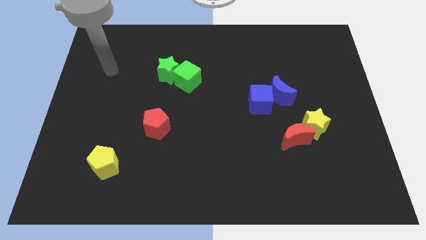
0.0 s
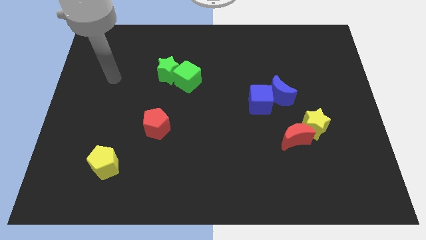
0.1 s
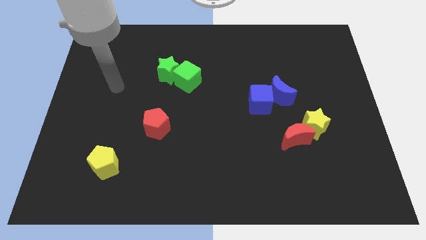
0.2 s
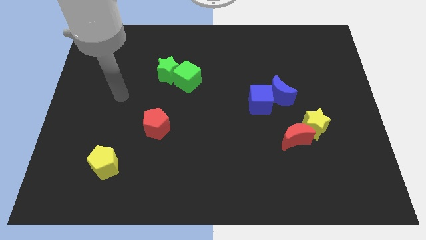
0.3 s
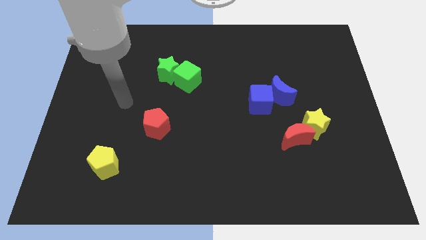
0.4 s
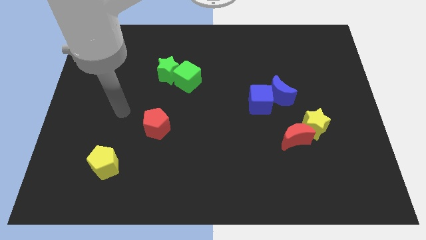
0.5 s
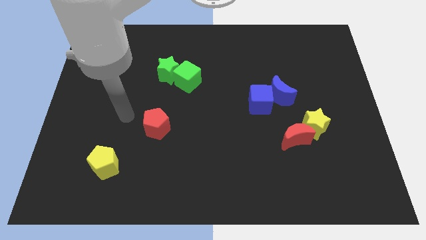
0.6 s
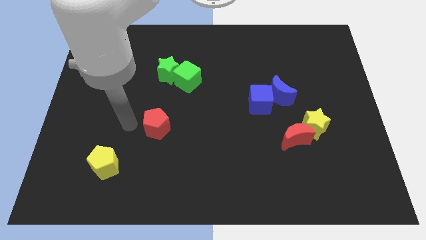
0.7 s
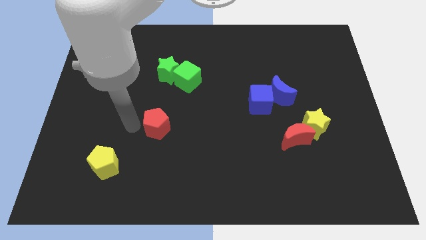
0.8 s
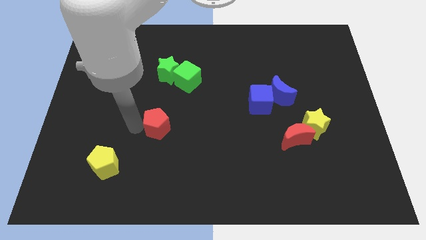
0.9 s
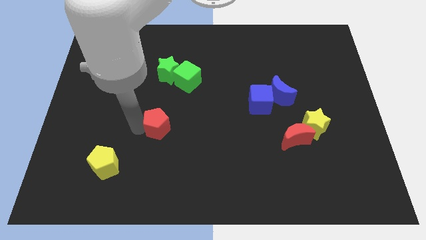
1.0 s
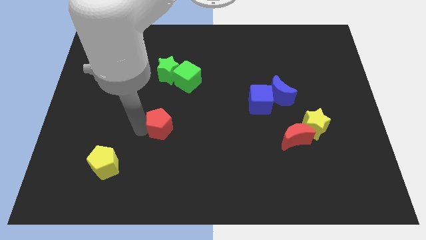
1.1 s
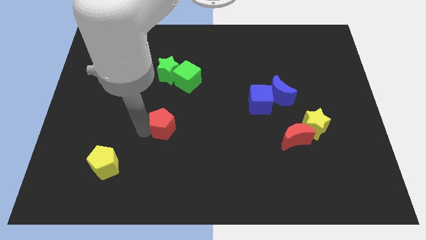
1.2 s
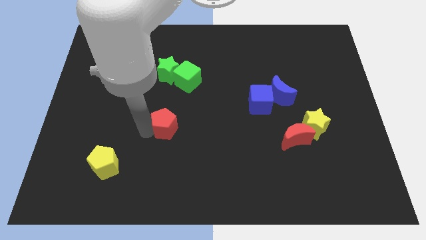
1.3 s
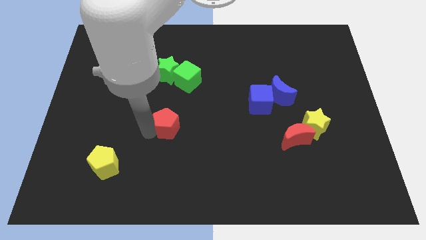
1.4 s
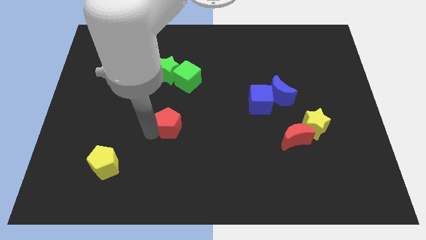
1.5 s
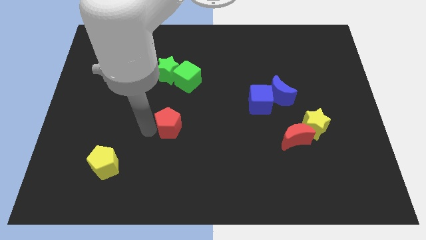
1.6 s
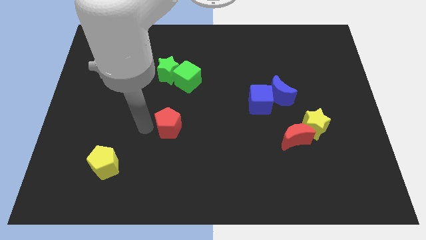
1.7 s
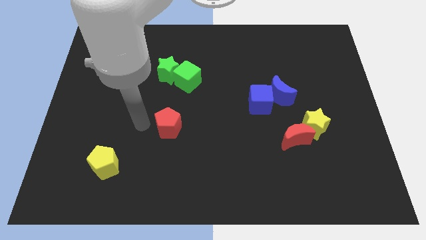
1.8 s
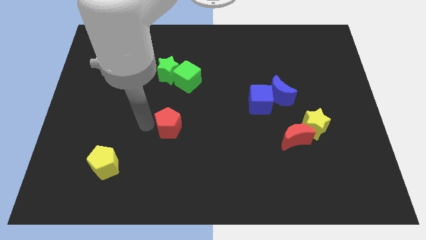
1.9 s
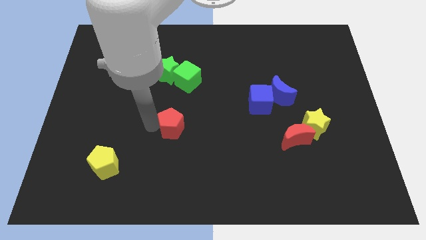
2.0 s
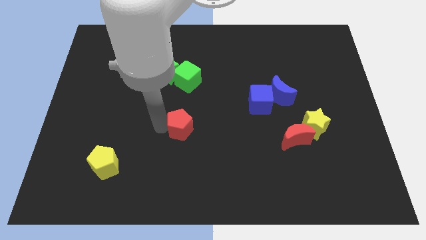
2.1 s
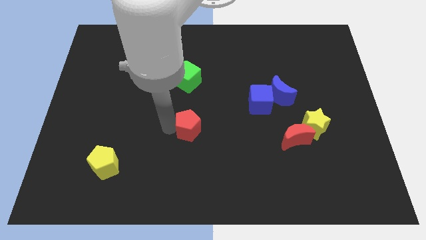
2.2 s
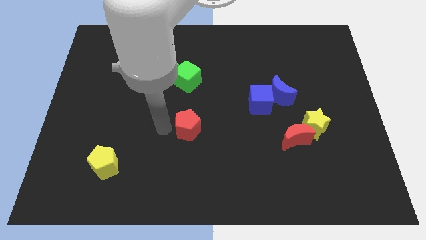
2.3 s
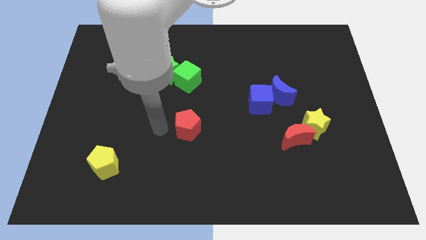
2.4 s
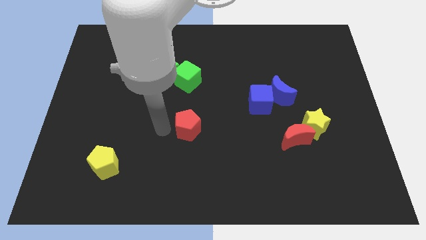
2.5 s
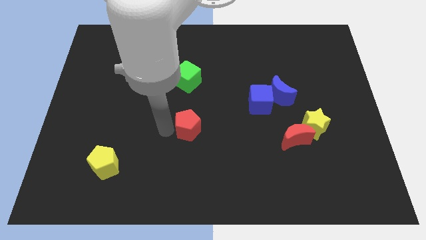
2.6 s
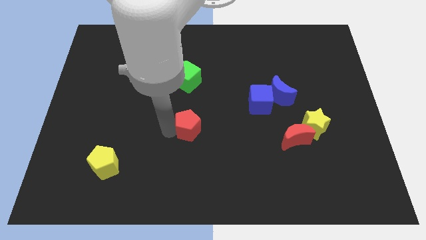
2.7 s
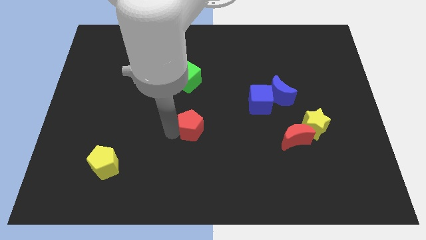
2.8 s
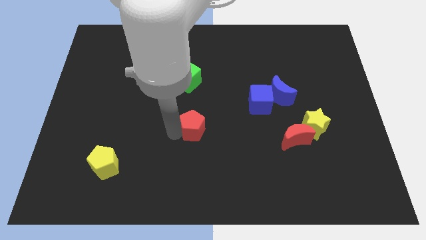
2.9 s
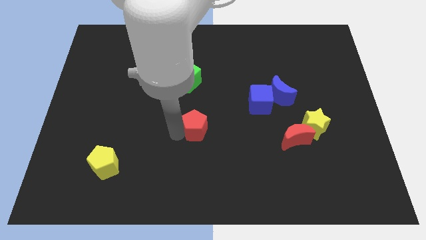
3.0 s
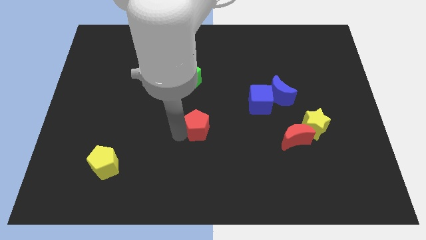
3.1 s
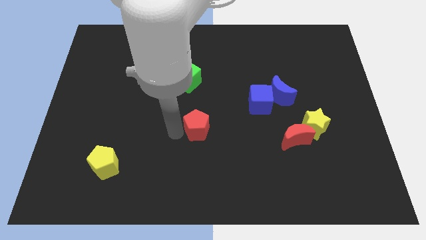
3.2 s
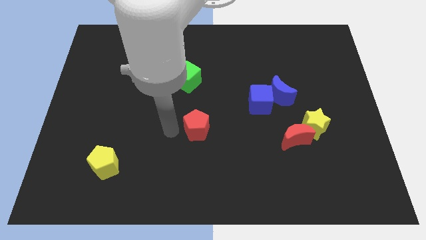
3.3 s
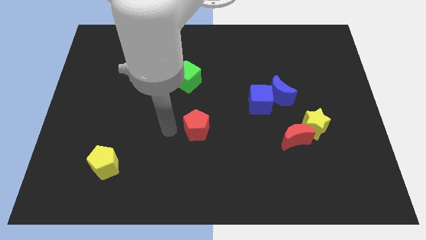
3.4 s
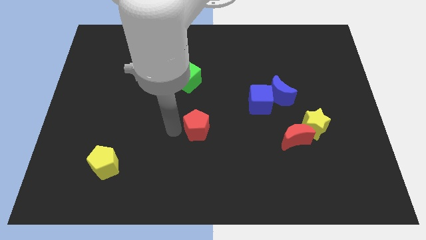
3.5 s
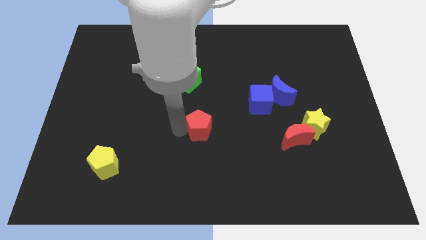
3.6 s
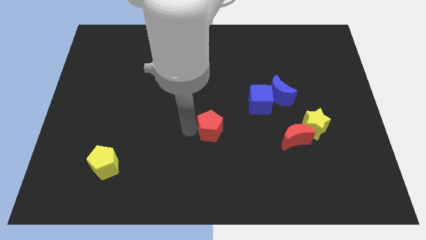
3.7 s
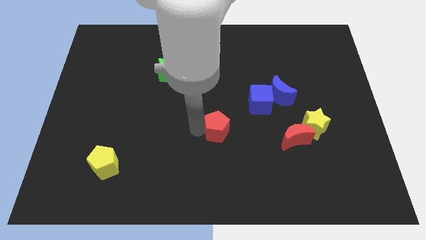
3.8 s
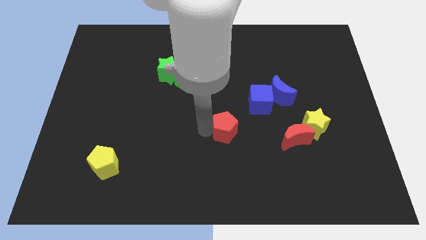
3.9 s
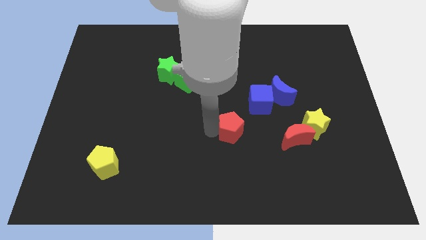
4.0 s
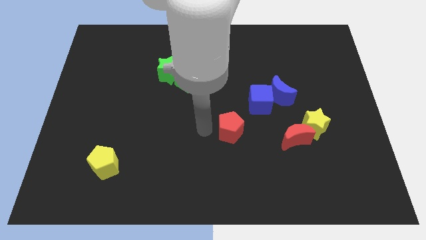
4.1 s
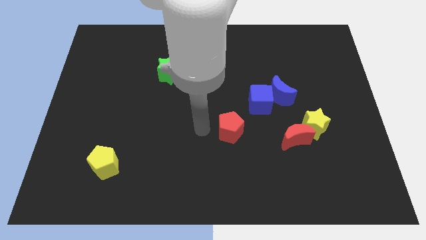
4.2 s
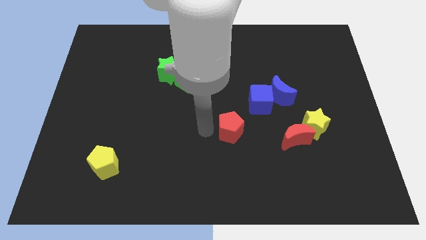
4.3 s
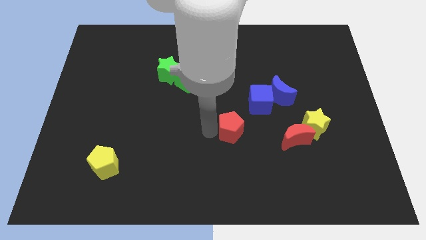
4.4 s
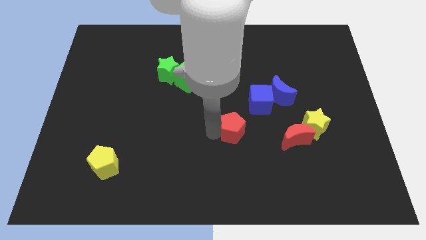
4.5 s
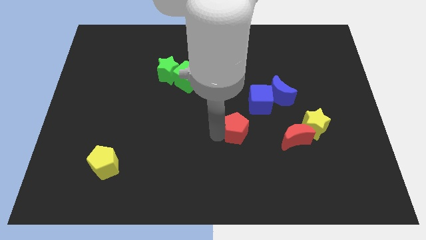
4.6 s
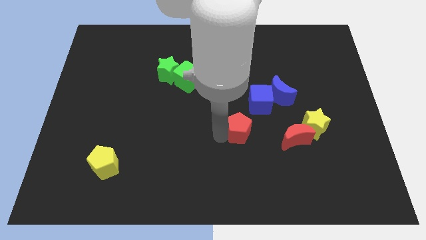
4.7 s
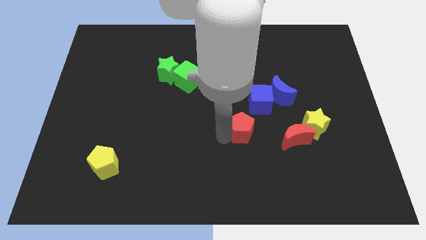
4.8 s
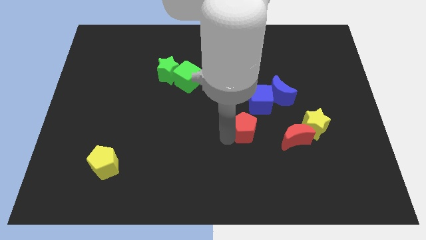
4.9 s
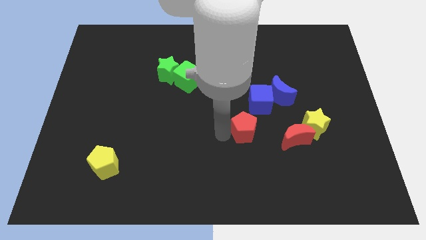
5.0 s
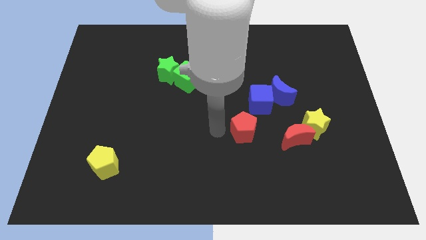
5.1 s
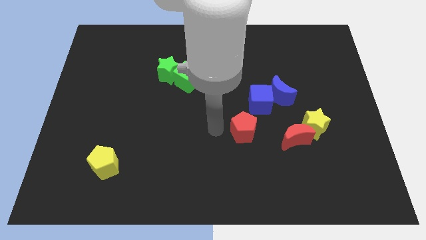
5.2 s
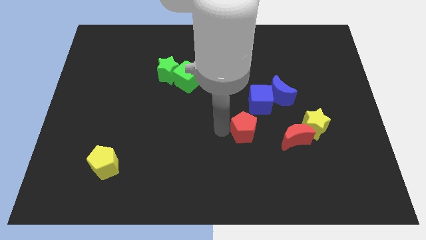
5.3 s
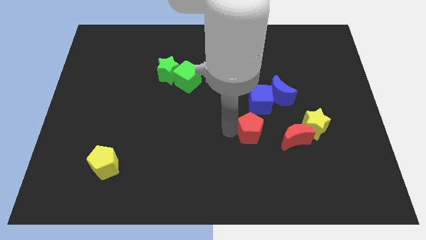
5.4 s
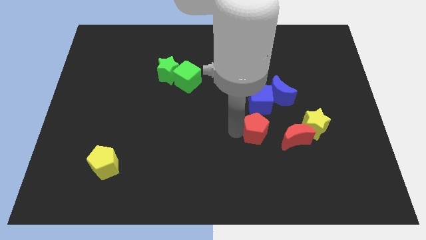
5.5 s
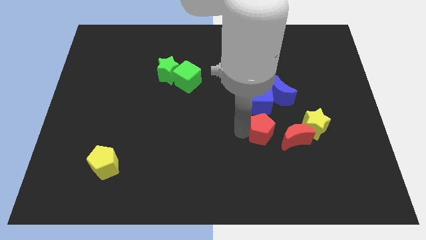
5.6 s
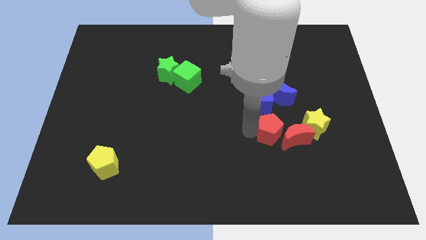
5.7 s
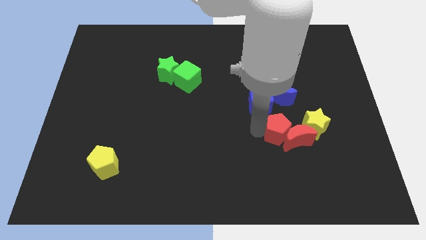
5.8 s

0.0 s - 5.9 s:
slide the red pentagon to the bottom left side of the yellow star

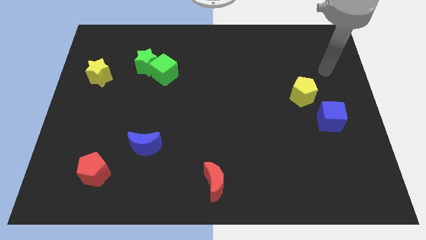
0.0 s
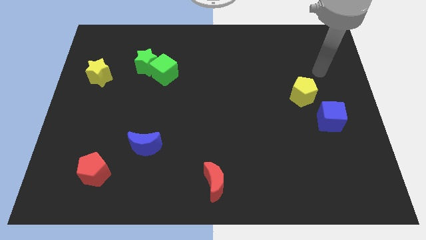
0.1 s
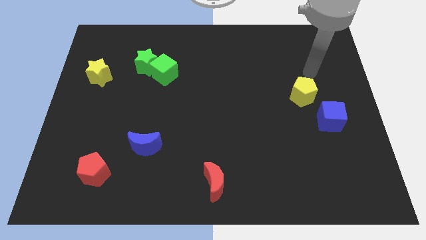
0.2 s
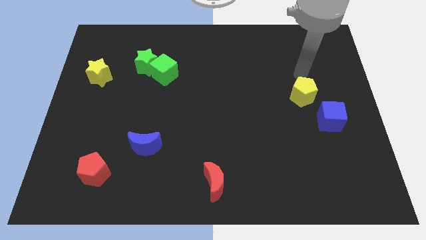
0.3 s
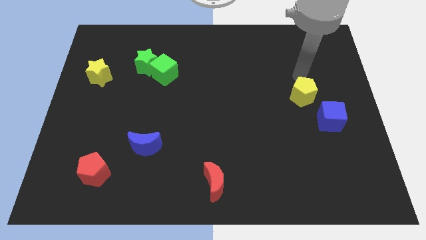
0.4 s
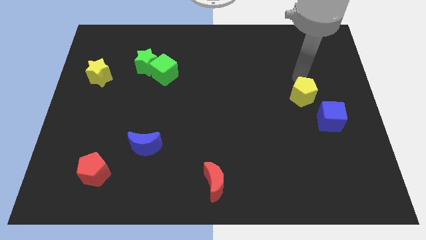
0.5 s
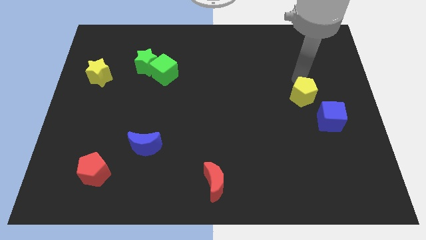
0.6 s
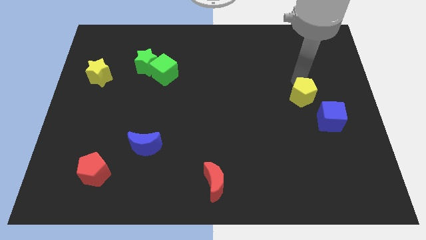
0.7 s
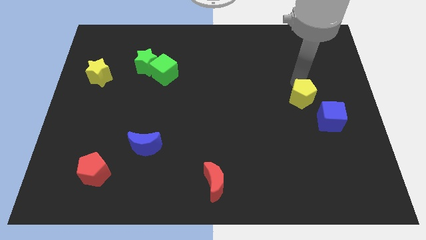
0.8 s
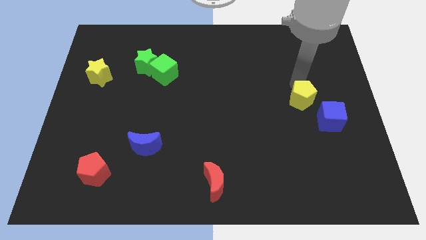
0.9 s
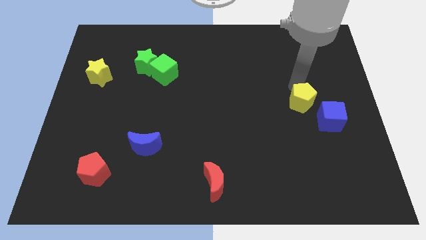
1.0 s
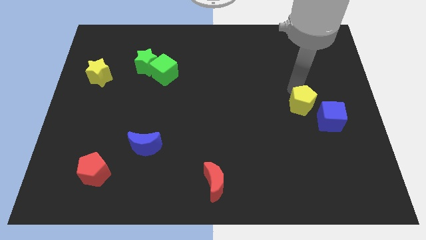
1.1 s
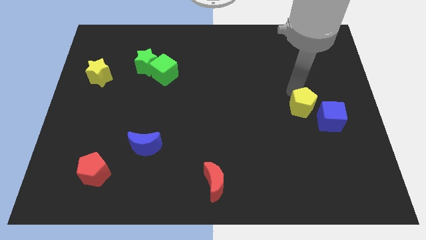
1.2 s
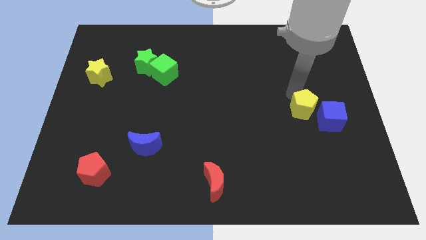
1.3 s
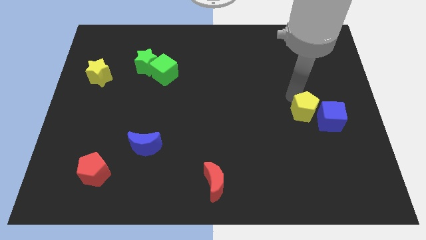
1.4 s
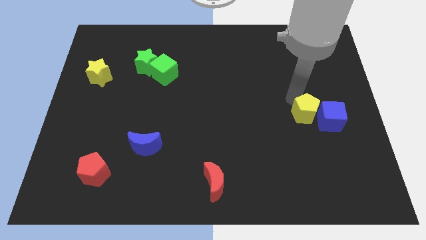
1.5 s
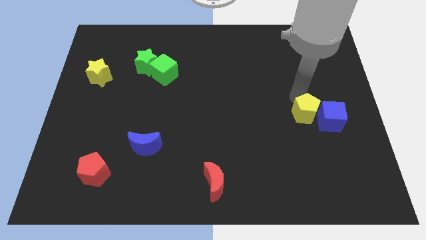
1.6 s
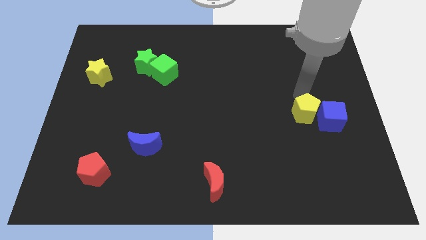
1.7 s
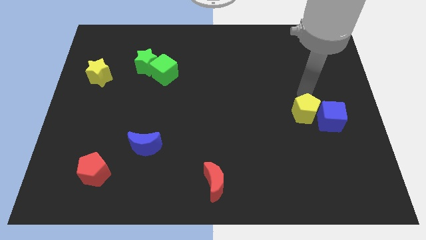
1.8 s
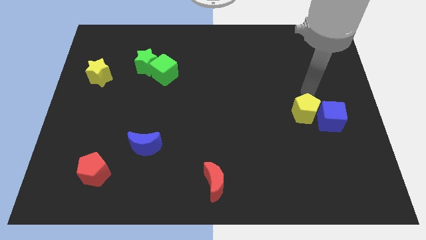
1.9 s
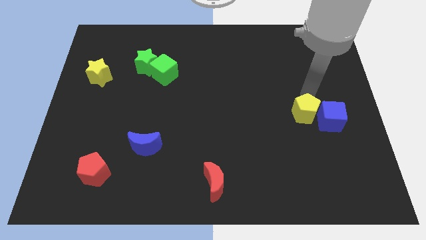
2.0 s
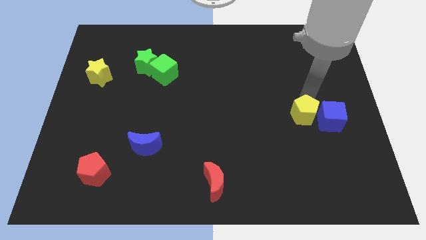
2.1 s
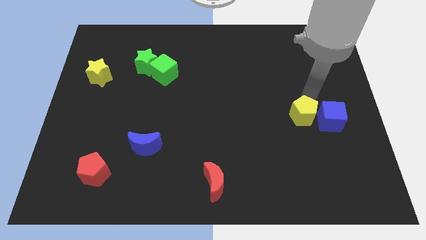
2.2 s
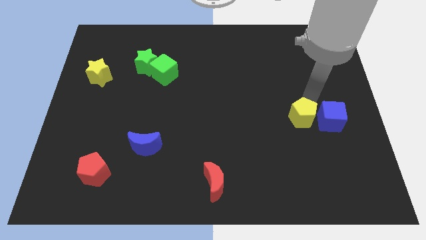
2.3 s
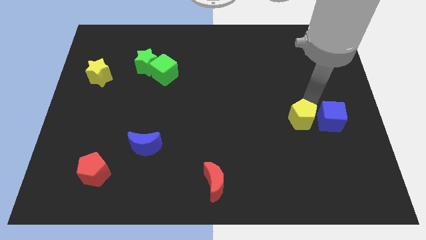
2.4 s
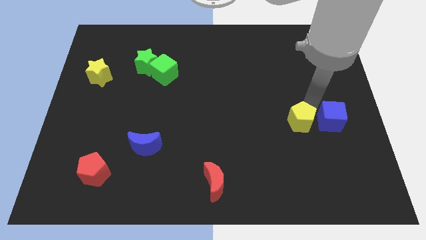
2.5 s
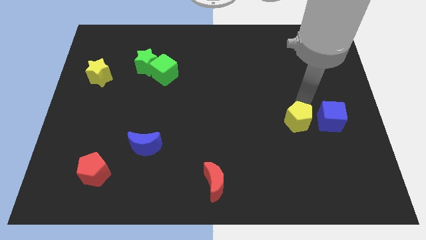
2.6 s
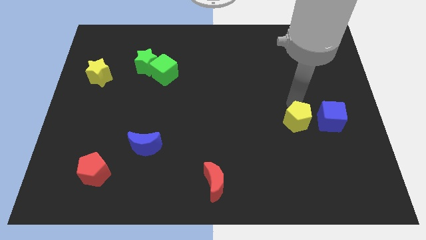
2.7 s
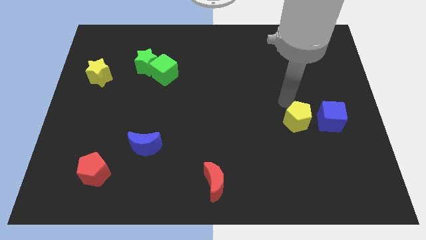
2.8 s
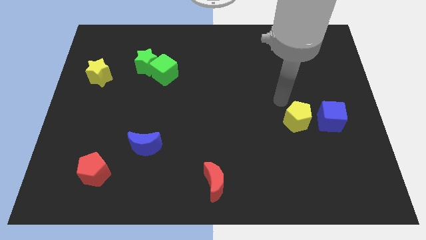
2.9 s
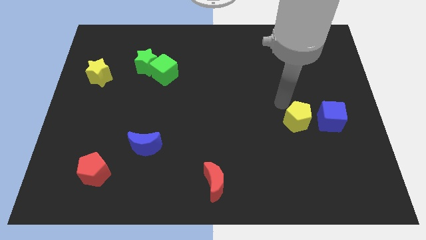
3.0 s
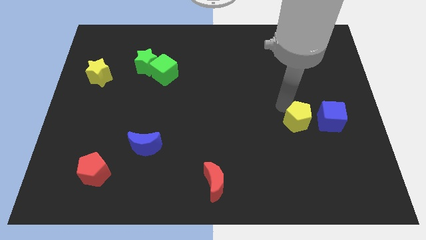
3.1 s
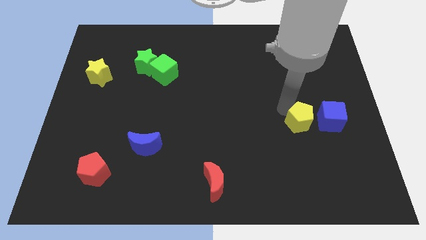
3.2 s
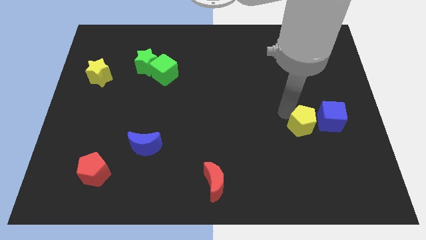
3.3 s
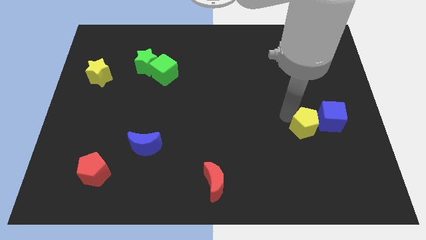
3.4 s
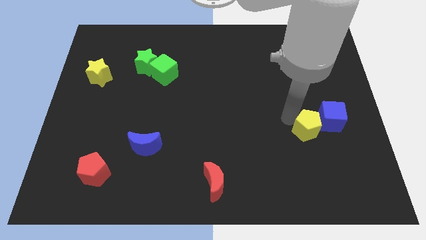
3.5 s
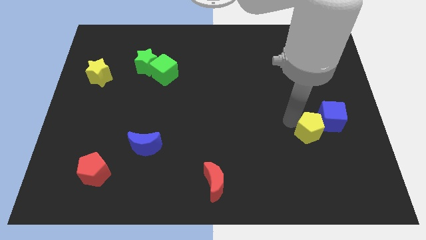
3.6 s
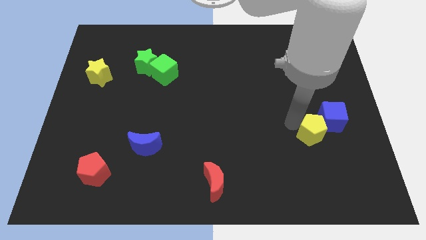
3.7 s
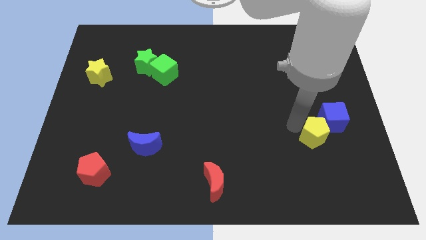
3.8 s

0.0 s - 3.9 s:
slide the yellow pentagon to the bottom side of the blue cube
